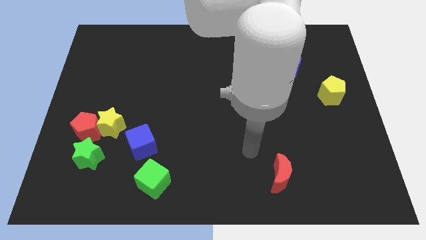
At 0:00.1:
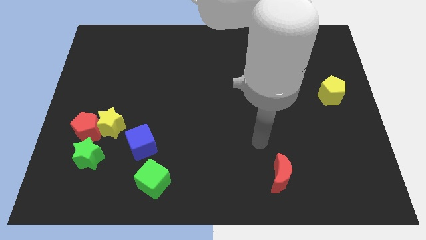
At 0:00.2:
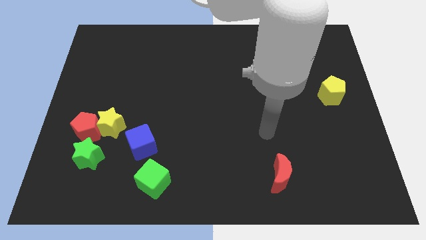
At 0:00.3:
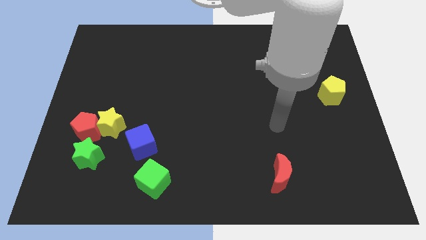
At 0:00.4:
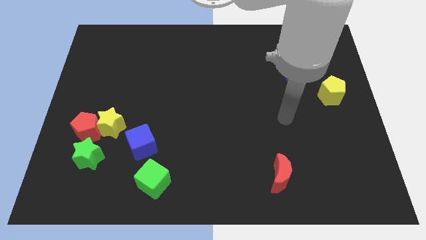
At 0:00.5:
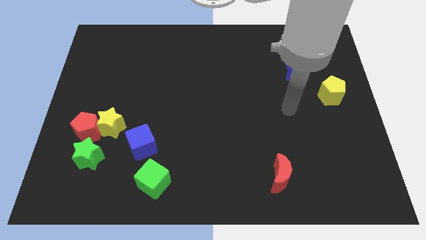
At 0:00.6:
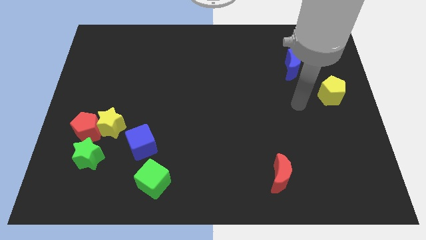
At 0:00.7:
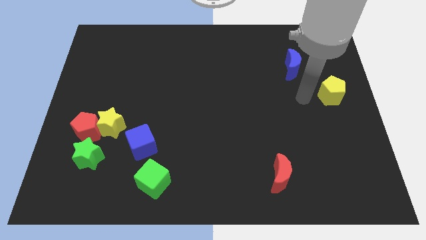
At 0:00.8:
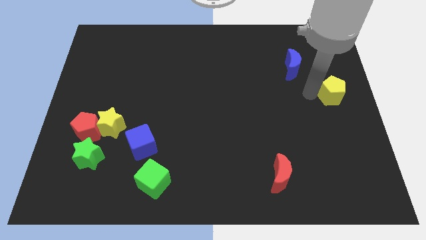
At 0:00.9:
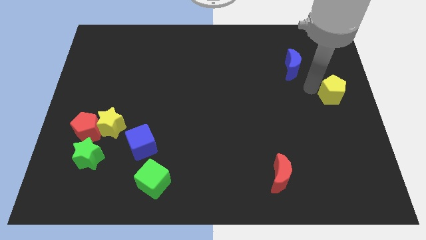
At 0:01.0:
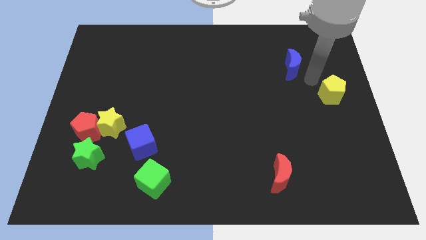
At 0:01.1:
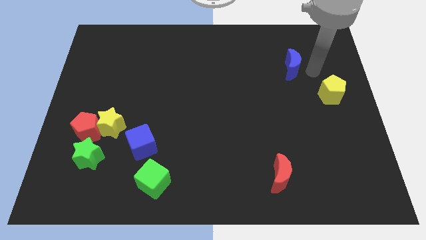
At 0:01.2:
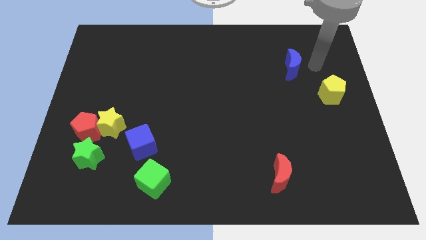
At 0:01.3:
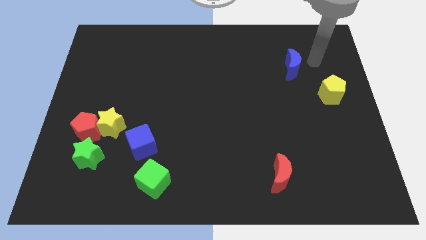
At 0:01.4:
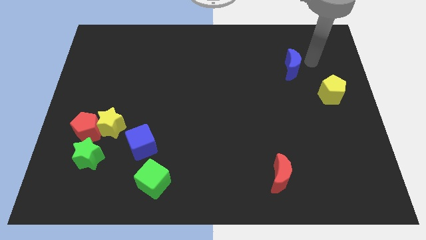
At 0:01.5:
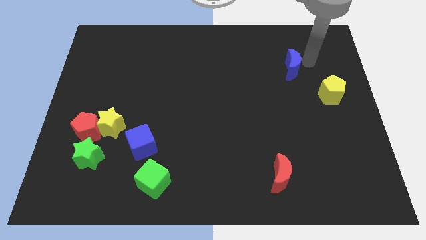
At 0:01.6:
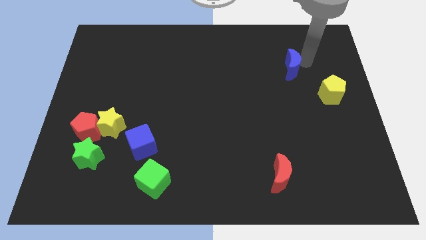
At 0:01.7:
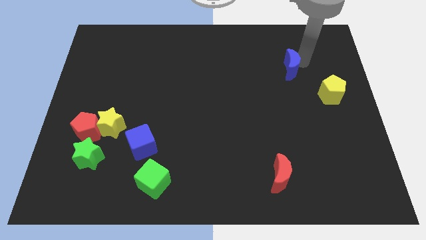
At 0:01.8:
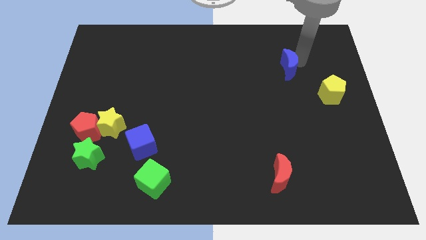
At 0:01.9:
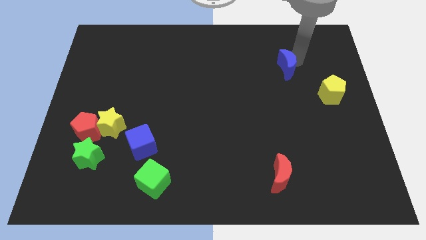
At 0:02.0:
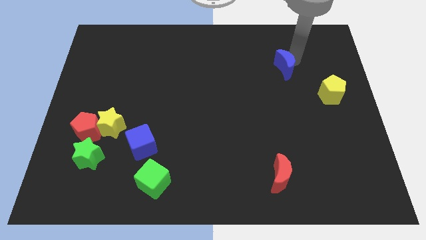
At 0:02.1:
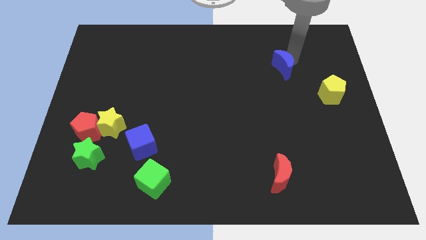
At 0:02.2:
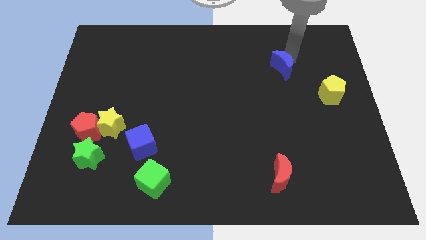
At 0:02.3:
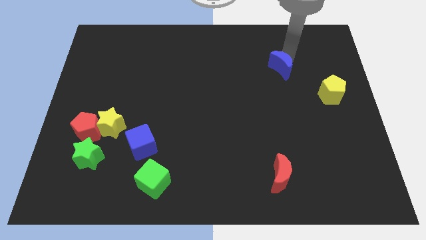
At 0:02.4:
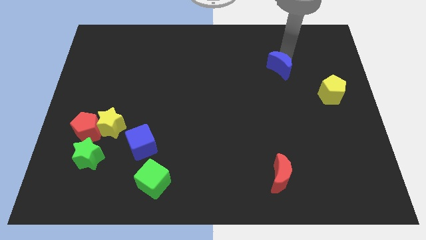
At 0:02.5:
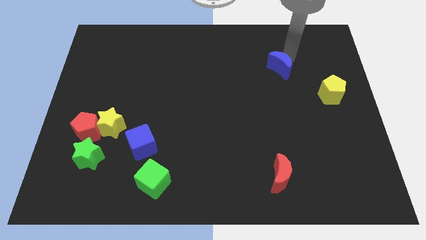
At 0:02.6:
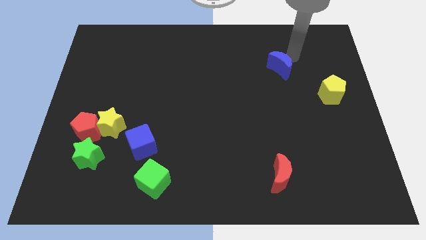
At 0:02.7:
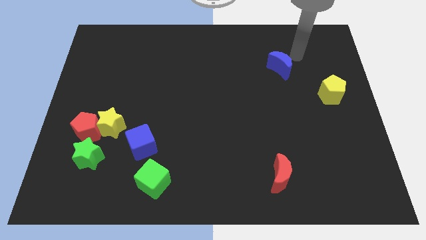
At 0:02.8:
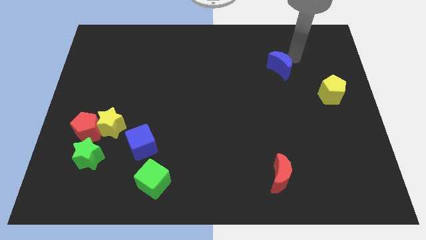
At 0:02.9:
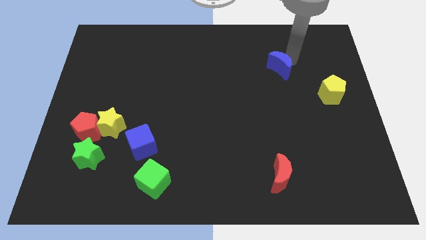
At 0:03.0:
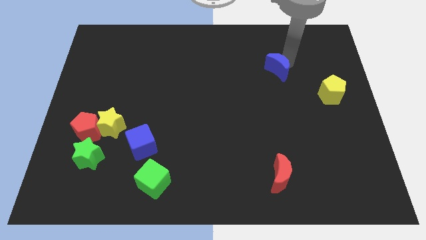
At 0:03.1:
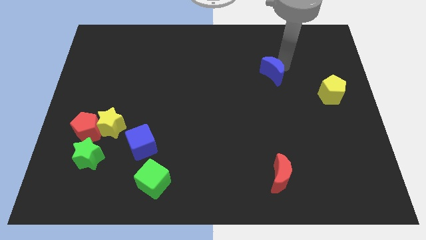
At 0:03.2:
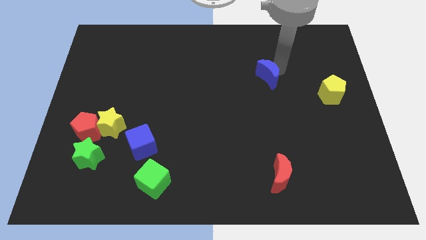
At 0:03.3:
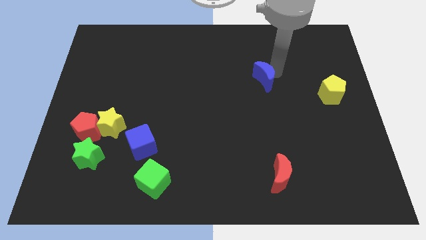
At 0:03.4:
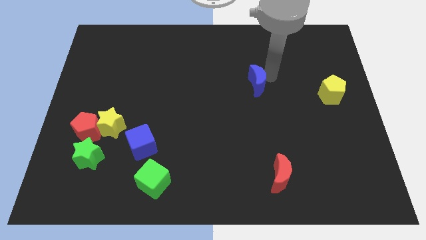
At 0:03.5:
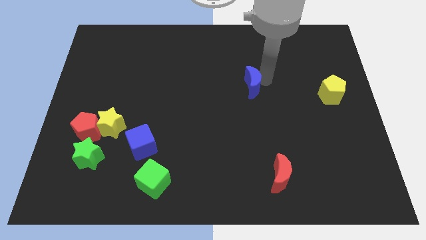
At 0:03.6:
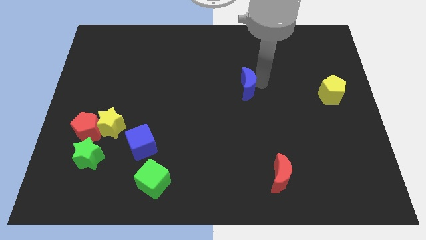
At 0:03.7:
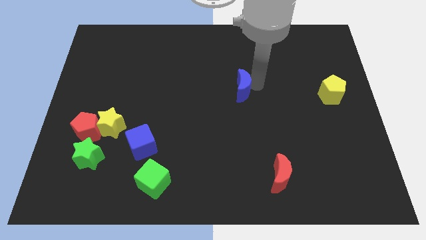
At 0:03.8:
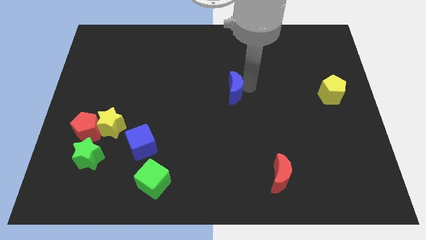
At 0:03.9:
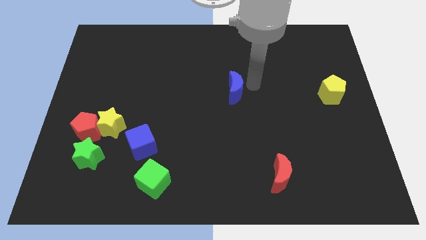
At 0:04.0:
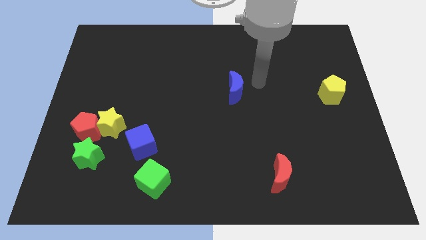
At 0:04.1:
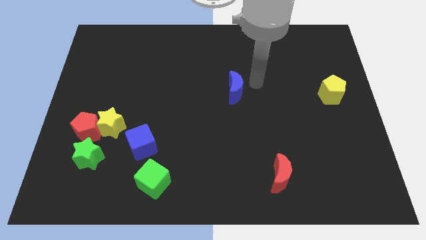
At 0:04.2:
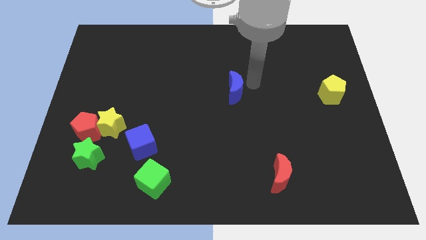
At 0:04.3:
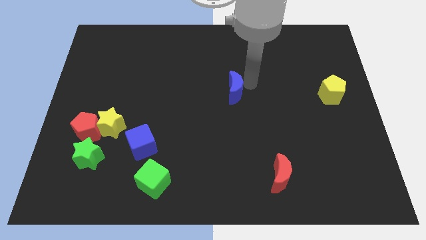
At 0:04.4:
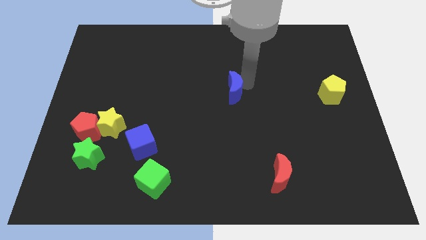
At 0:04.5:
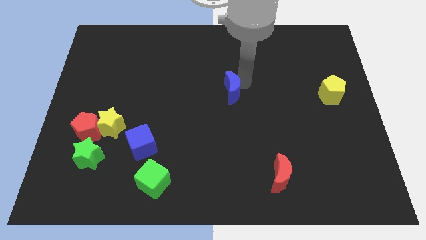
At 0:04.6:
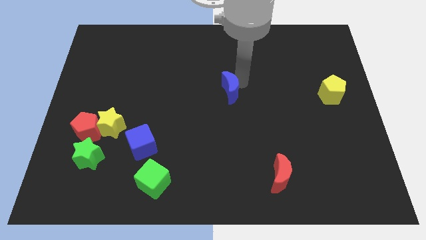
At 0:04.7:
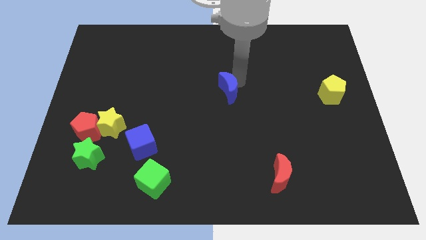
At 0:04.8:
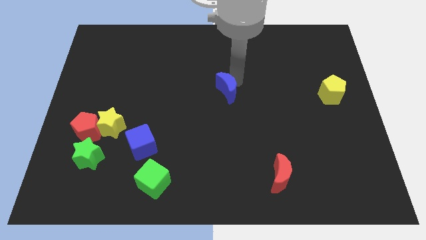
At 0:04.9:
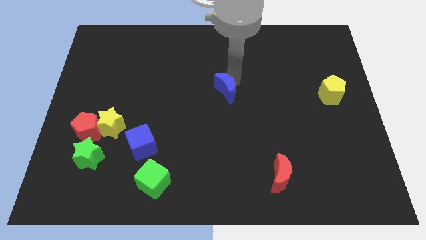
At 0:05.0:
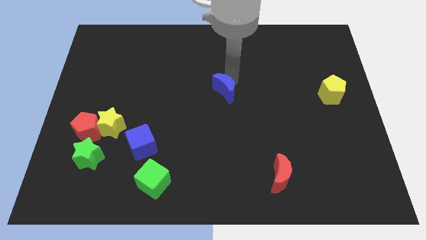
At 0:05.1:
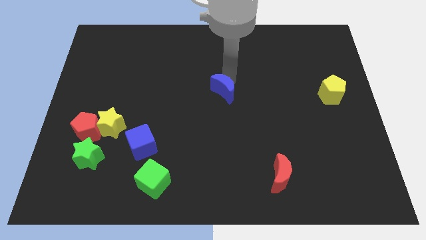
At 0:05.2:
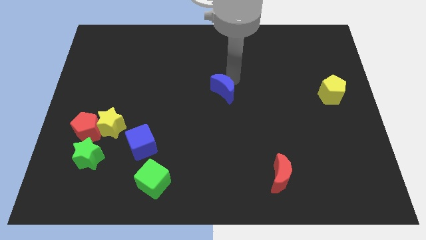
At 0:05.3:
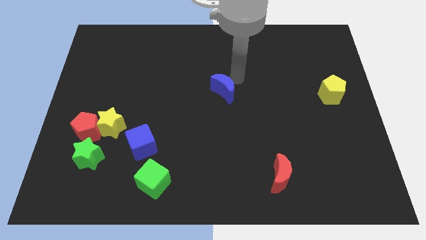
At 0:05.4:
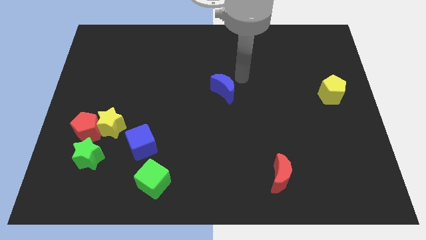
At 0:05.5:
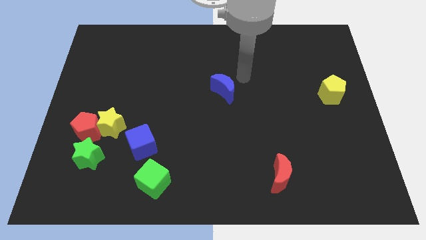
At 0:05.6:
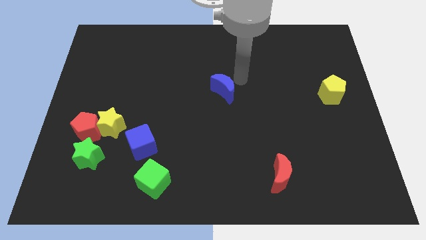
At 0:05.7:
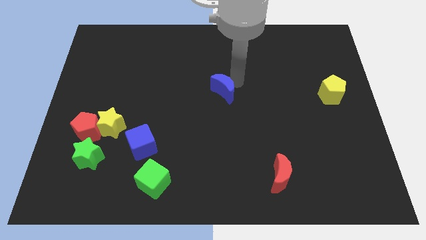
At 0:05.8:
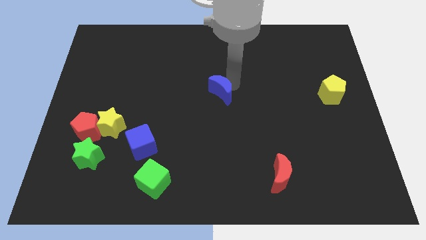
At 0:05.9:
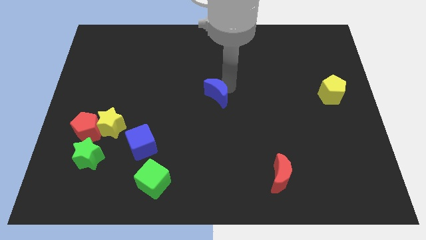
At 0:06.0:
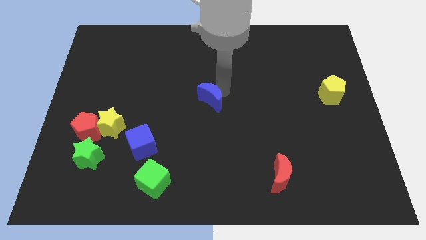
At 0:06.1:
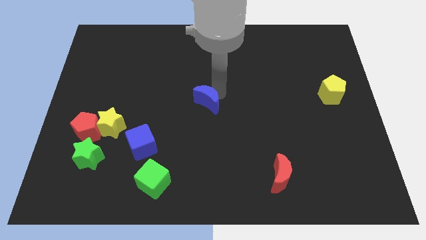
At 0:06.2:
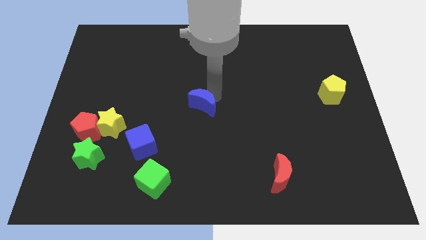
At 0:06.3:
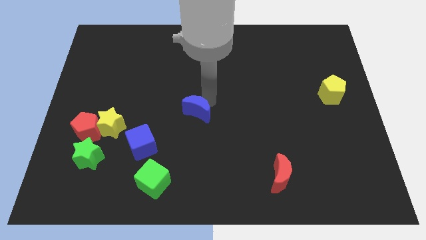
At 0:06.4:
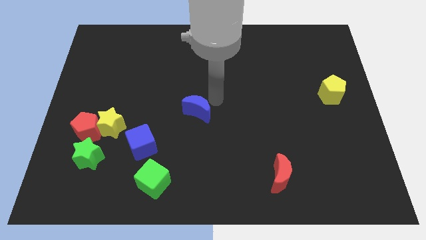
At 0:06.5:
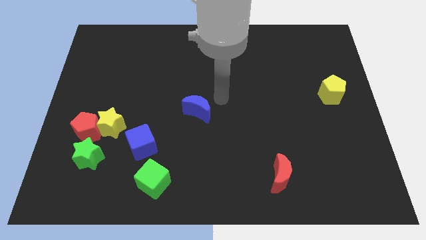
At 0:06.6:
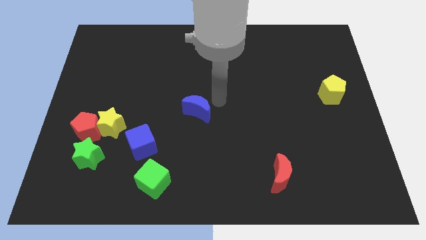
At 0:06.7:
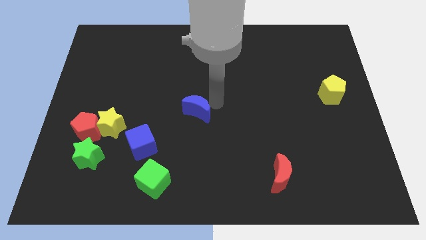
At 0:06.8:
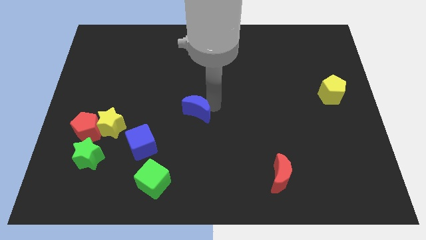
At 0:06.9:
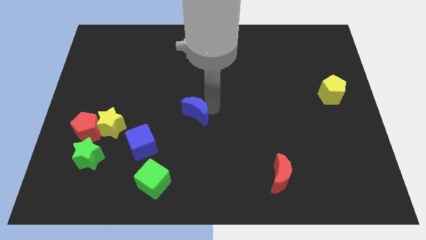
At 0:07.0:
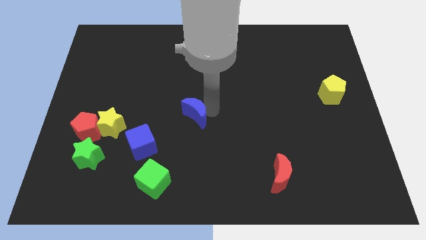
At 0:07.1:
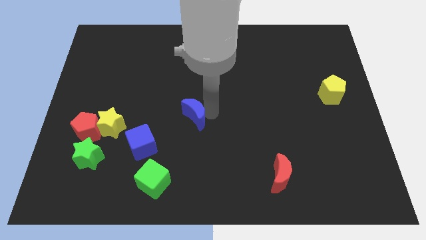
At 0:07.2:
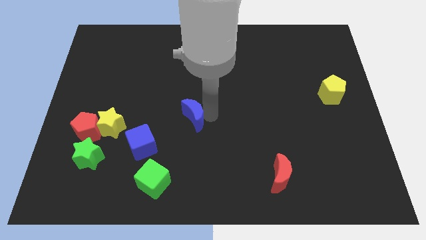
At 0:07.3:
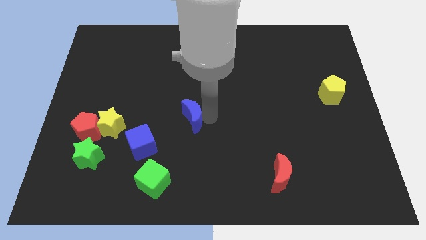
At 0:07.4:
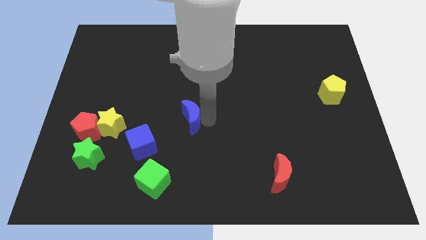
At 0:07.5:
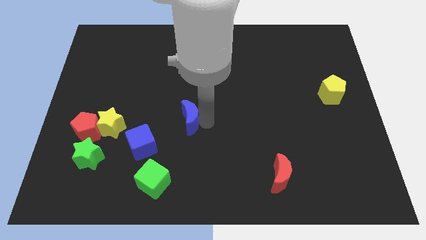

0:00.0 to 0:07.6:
put the blue moon to the top right side of the blue cube

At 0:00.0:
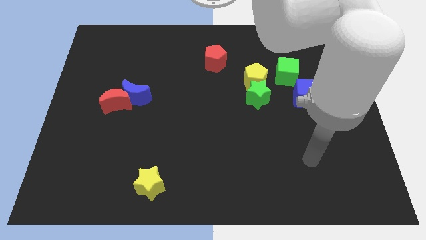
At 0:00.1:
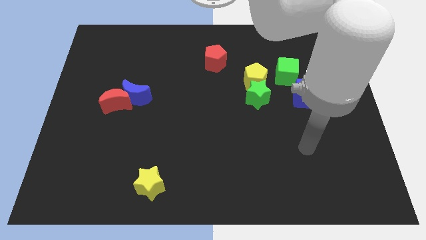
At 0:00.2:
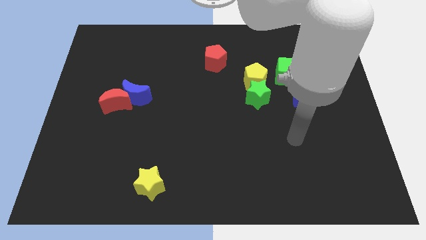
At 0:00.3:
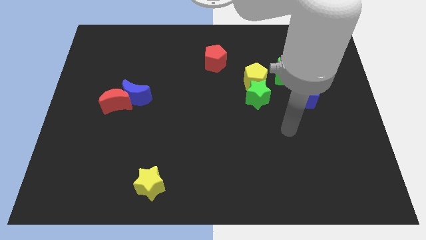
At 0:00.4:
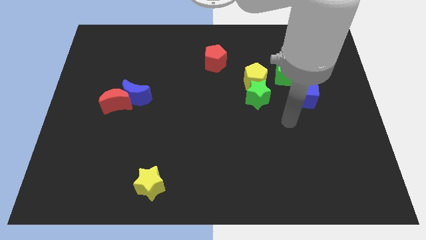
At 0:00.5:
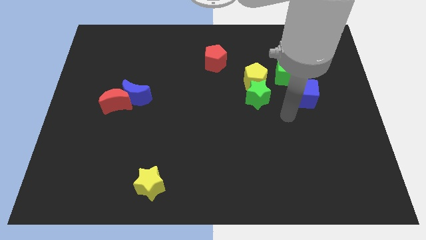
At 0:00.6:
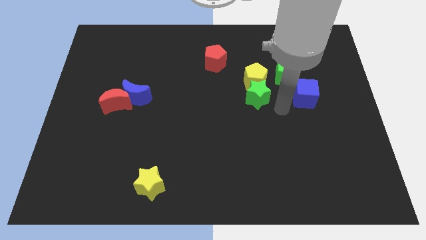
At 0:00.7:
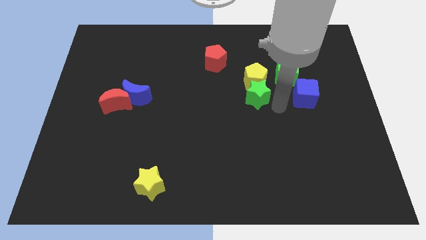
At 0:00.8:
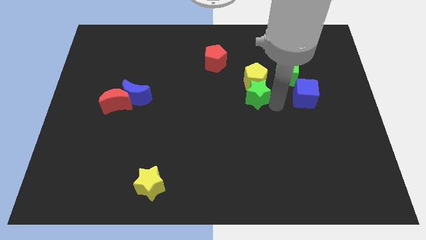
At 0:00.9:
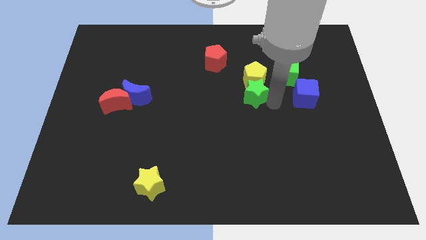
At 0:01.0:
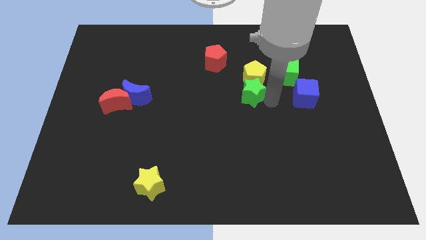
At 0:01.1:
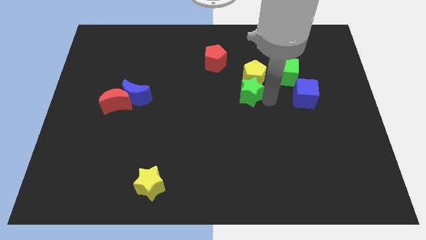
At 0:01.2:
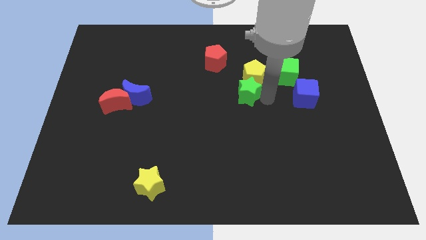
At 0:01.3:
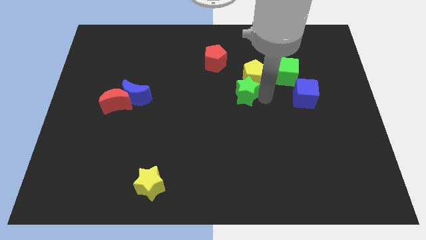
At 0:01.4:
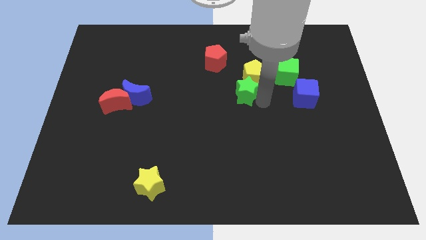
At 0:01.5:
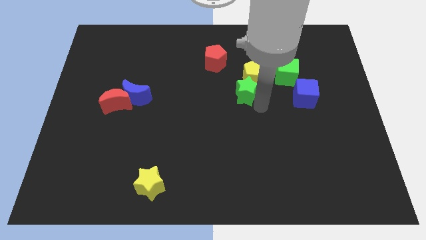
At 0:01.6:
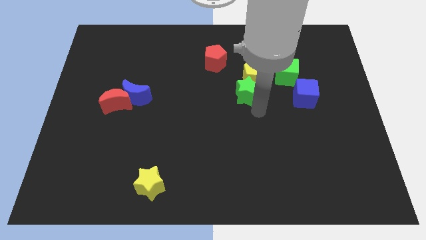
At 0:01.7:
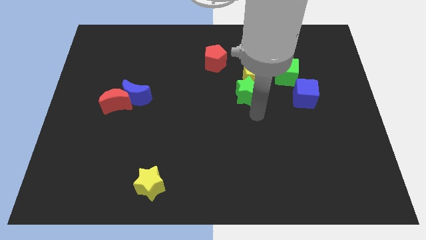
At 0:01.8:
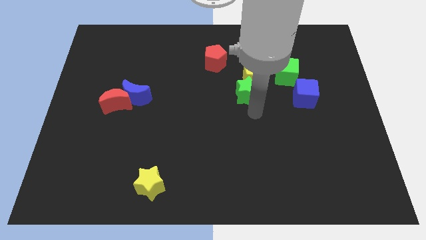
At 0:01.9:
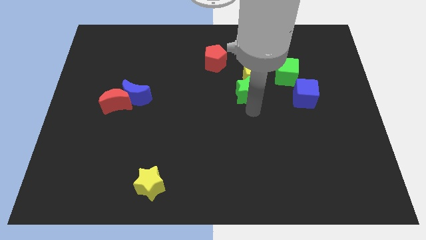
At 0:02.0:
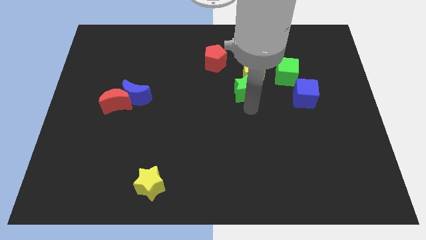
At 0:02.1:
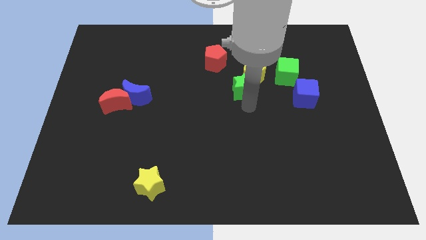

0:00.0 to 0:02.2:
slide the green star to the bottom right side of the red pentagon
